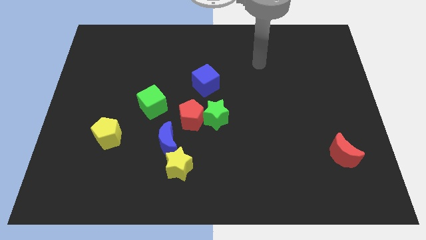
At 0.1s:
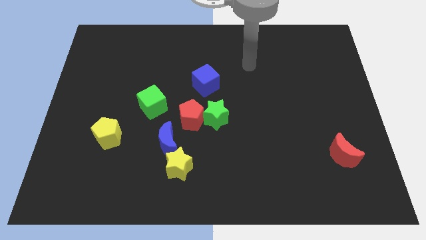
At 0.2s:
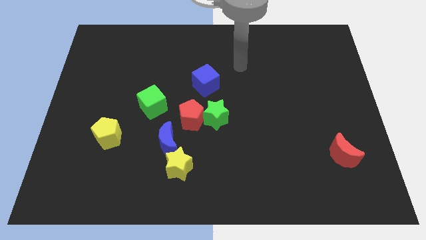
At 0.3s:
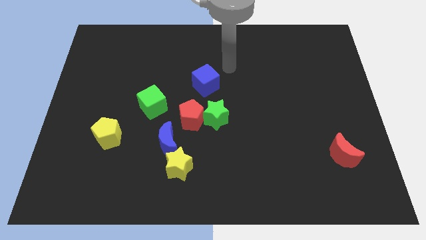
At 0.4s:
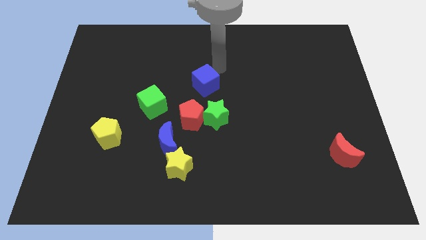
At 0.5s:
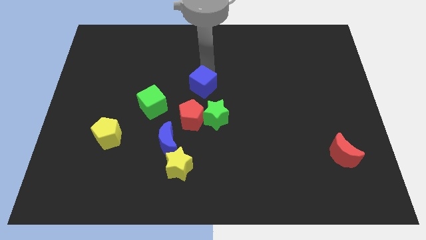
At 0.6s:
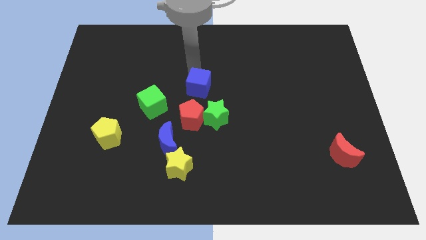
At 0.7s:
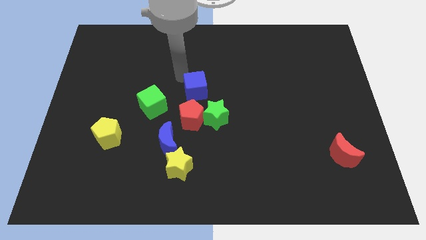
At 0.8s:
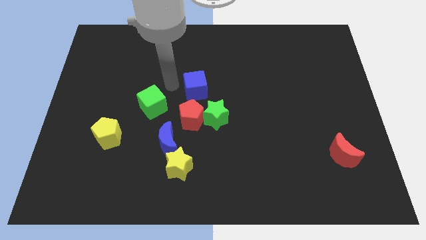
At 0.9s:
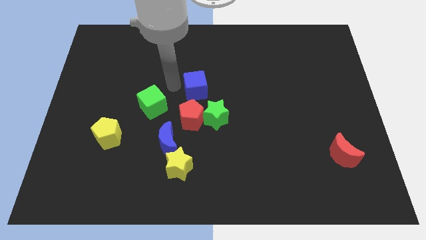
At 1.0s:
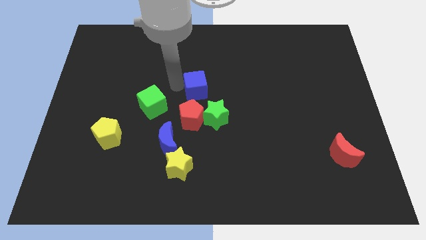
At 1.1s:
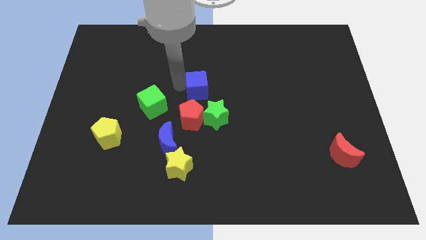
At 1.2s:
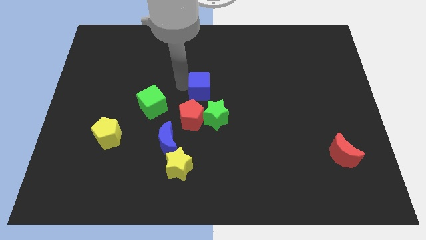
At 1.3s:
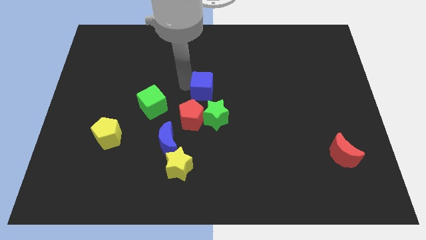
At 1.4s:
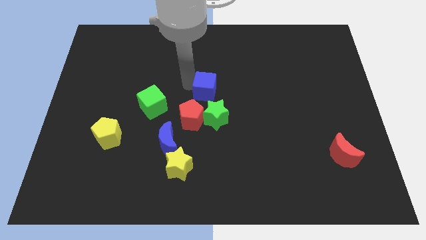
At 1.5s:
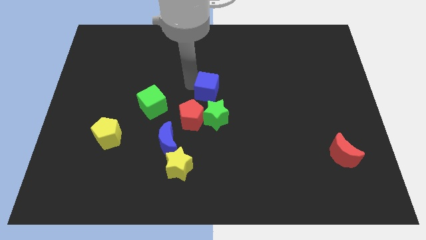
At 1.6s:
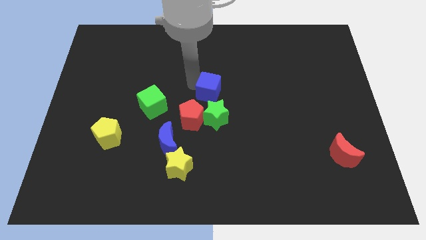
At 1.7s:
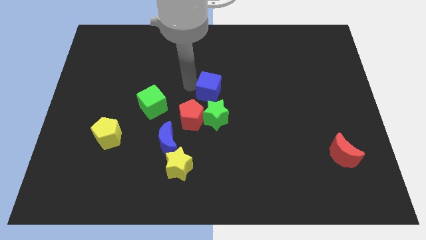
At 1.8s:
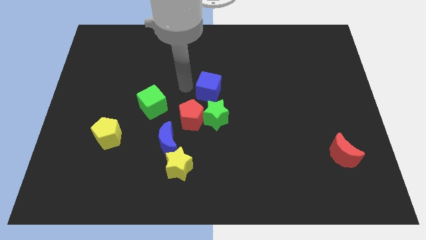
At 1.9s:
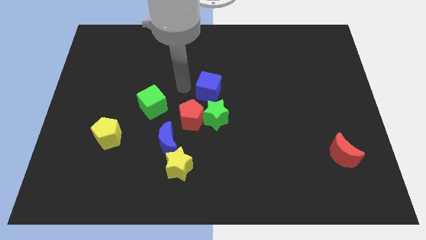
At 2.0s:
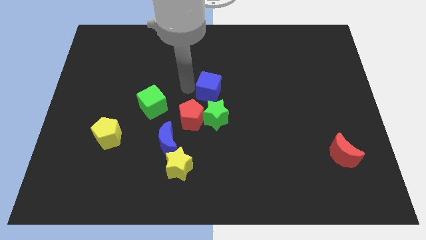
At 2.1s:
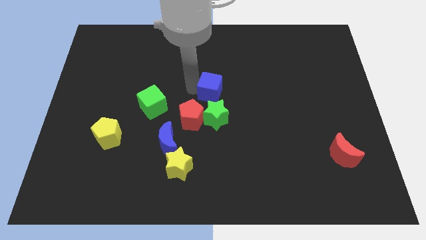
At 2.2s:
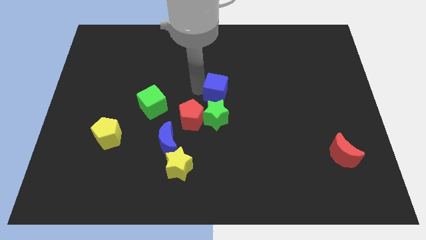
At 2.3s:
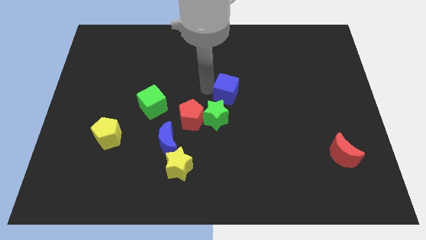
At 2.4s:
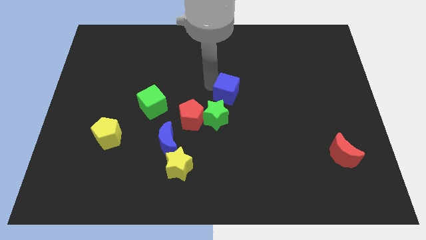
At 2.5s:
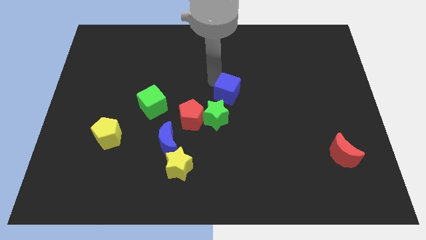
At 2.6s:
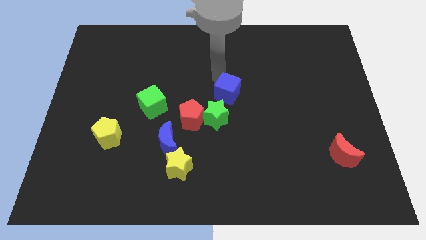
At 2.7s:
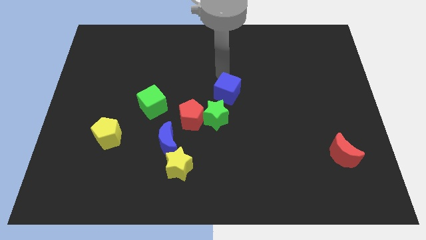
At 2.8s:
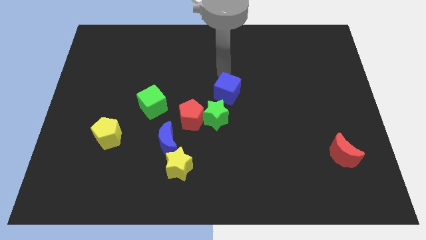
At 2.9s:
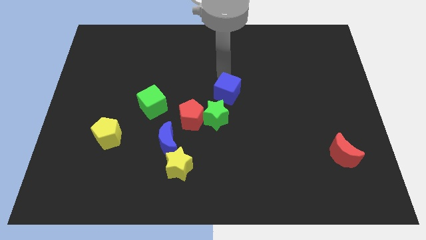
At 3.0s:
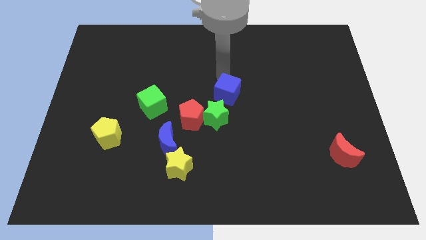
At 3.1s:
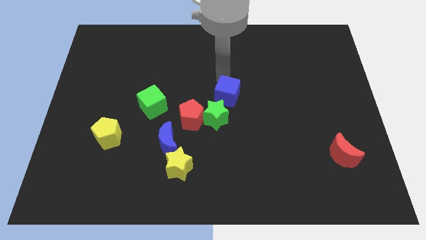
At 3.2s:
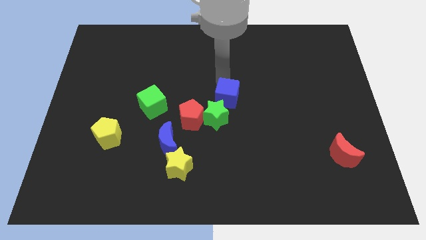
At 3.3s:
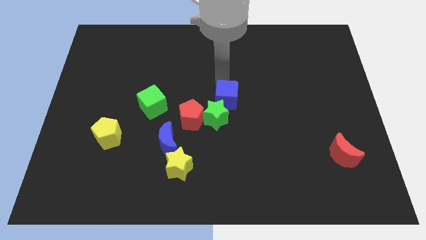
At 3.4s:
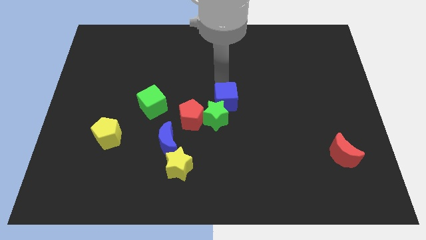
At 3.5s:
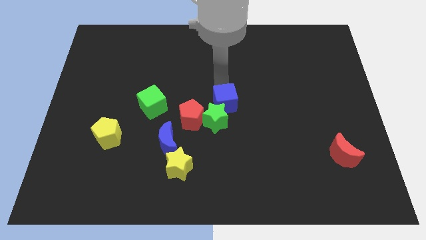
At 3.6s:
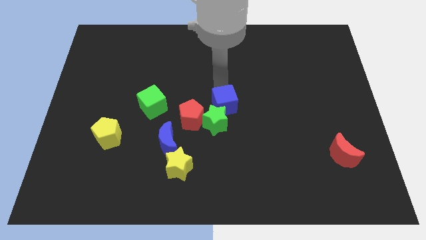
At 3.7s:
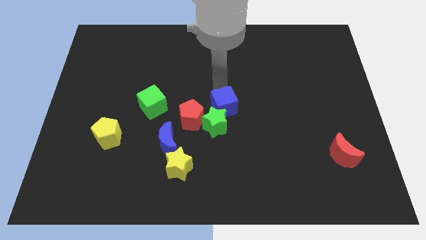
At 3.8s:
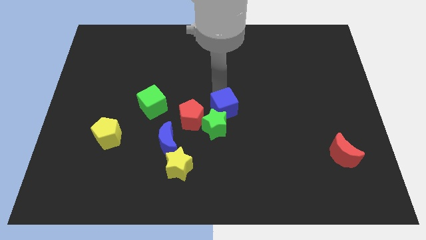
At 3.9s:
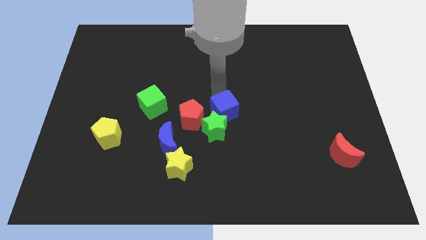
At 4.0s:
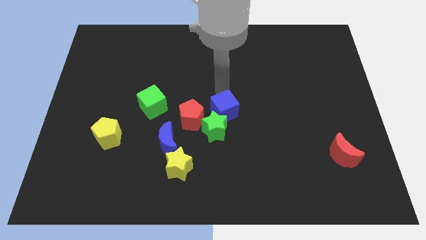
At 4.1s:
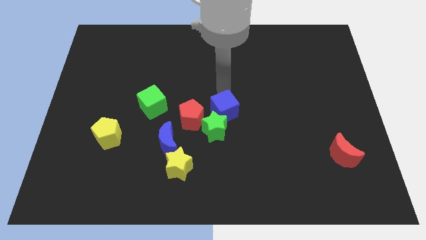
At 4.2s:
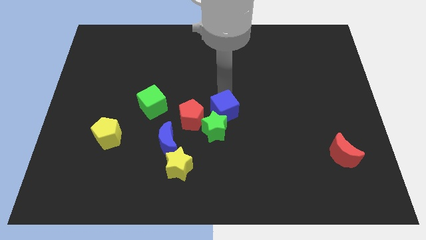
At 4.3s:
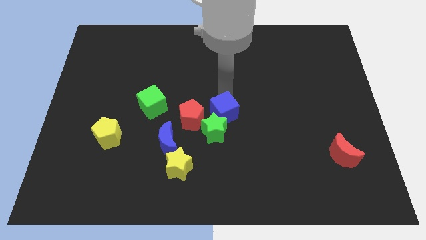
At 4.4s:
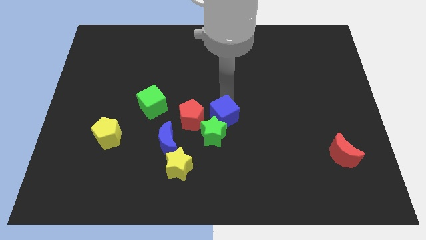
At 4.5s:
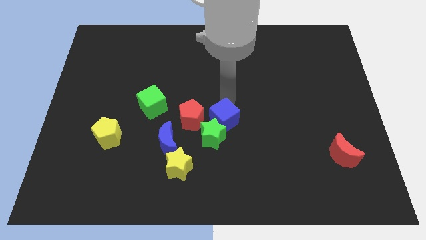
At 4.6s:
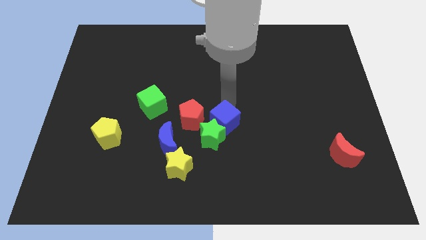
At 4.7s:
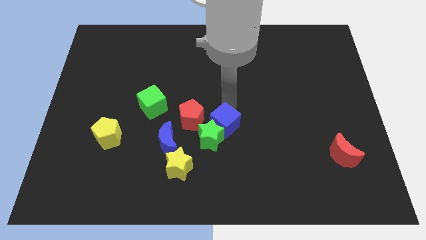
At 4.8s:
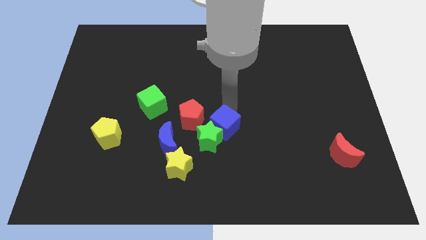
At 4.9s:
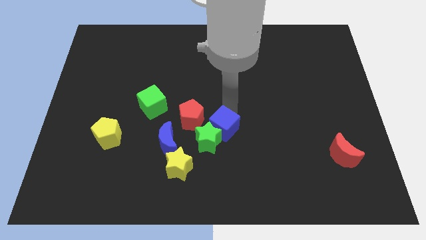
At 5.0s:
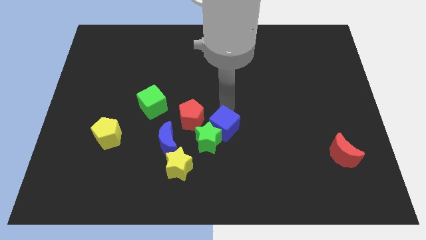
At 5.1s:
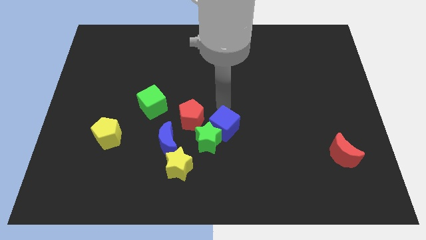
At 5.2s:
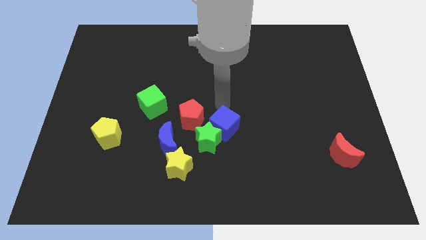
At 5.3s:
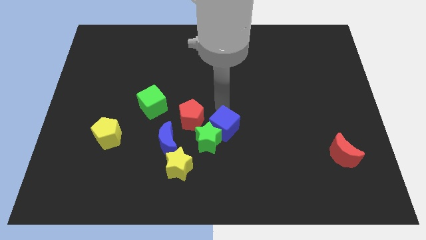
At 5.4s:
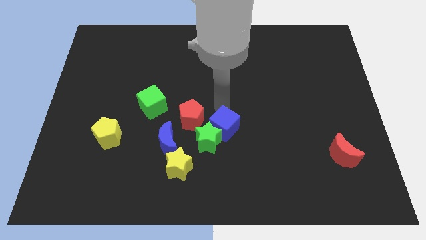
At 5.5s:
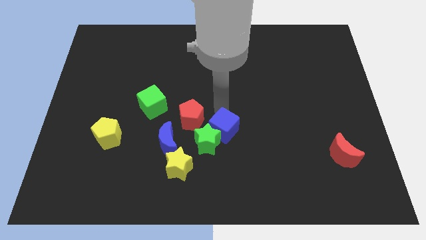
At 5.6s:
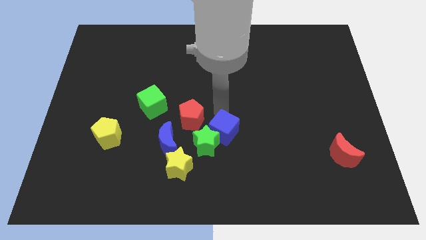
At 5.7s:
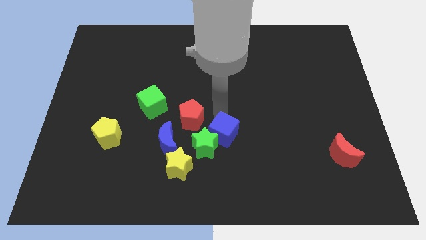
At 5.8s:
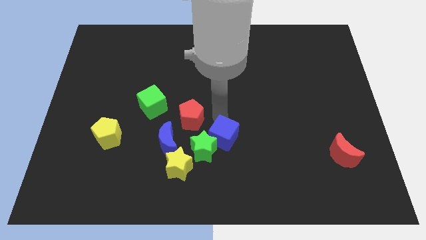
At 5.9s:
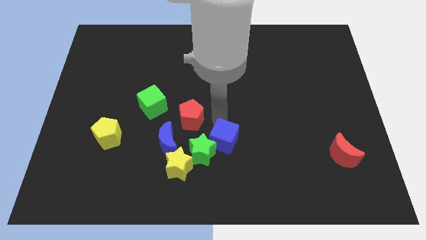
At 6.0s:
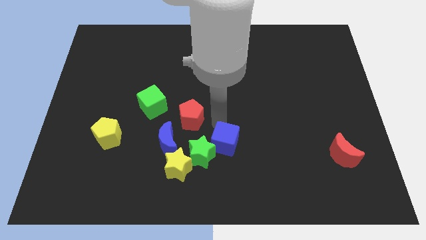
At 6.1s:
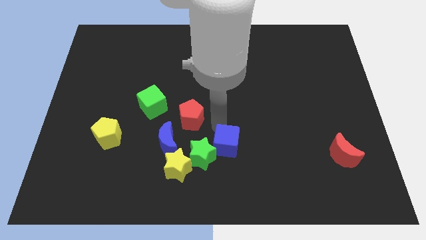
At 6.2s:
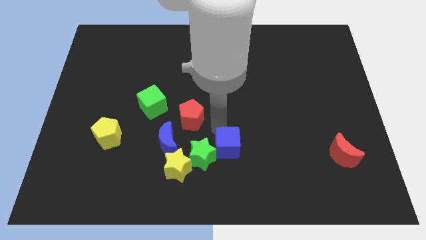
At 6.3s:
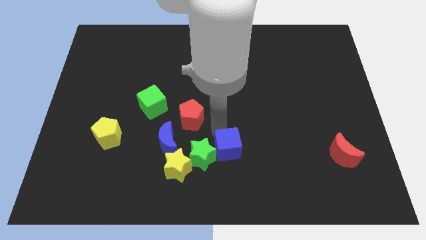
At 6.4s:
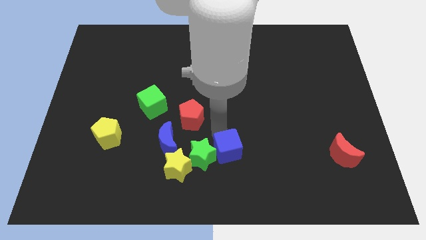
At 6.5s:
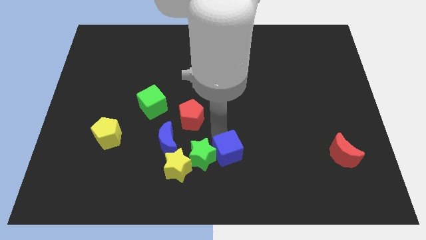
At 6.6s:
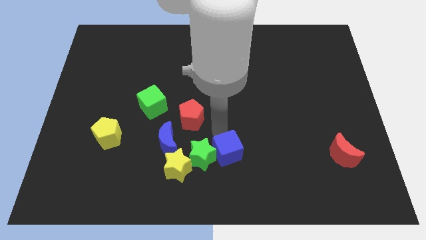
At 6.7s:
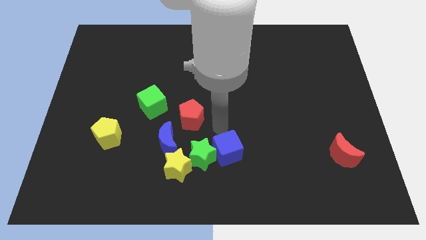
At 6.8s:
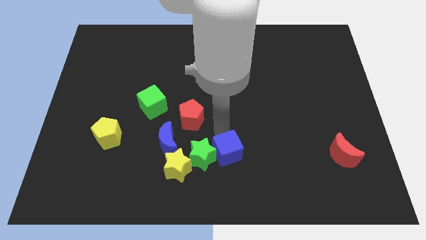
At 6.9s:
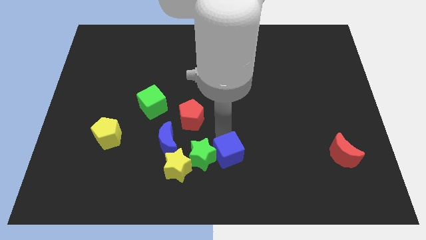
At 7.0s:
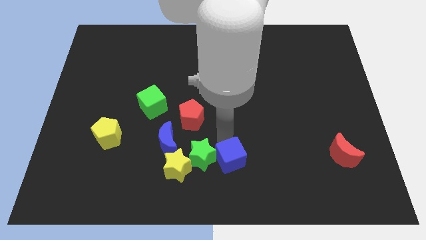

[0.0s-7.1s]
put the blue cube to the bottom side

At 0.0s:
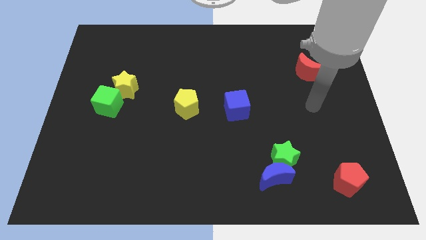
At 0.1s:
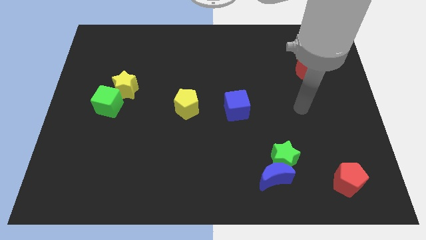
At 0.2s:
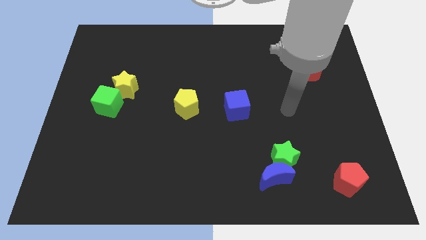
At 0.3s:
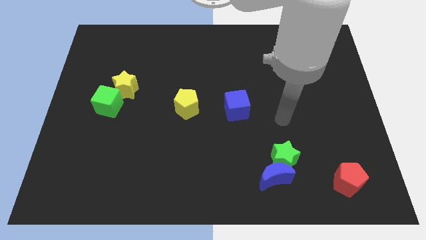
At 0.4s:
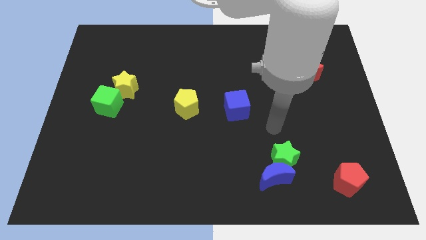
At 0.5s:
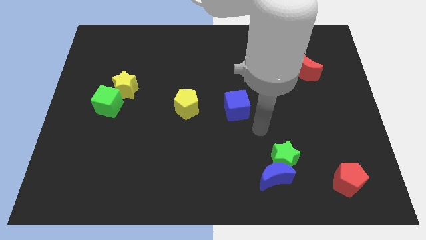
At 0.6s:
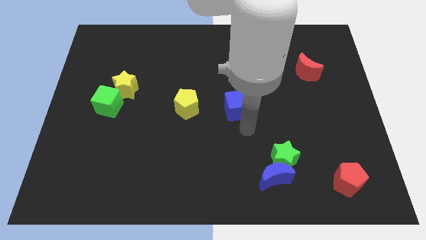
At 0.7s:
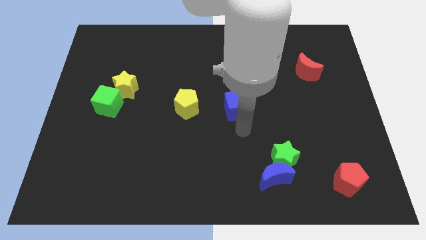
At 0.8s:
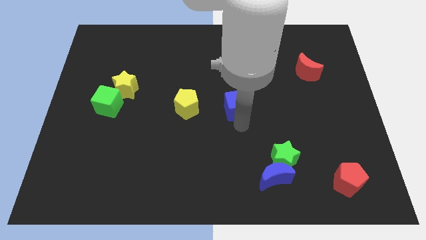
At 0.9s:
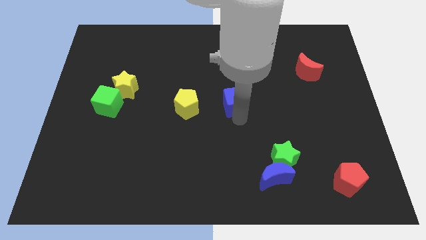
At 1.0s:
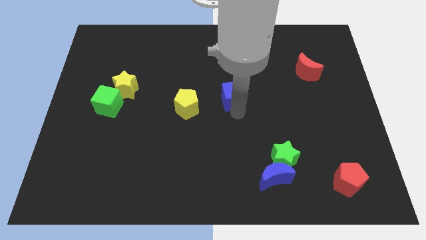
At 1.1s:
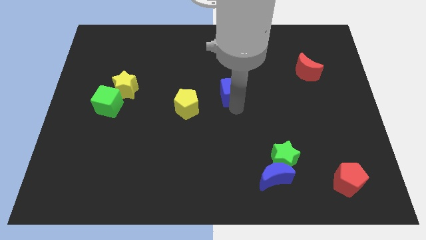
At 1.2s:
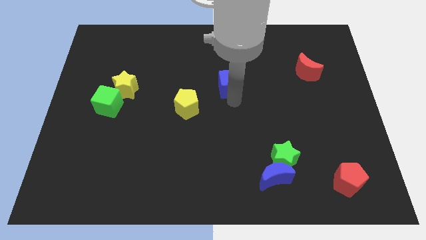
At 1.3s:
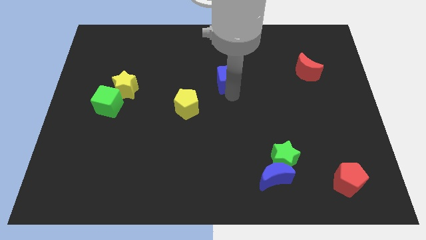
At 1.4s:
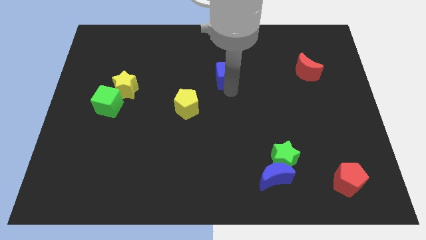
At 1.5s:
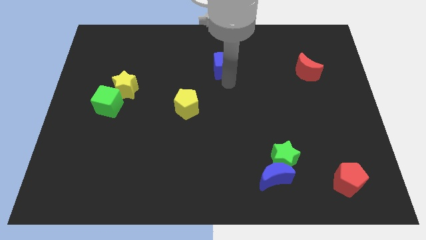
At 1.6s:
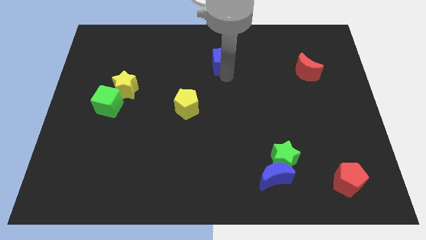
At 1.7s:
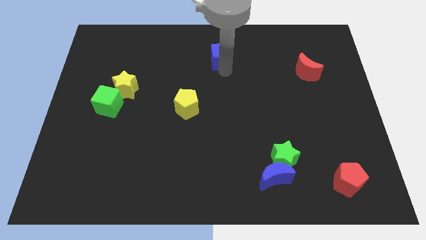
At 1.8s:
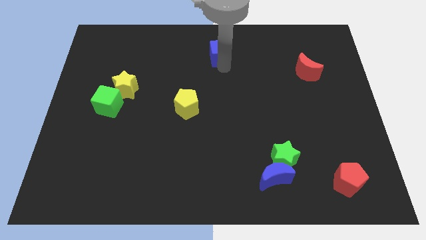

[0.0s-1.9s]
slide the blue cube to the towards your base
